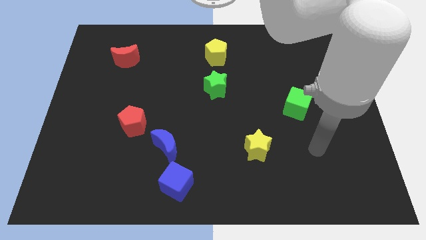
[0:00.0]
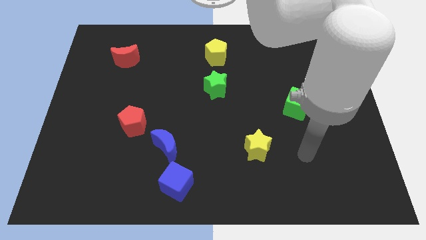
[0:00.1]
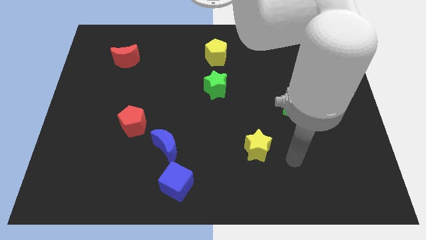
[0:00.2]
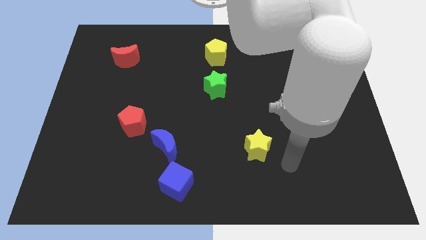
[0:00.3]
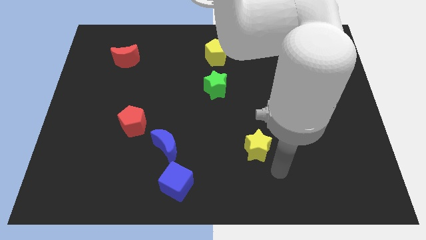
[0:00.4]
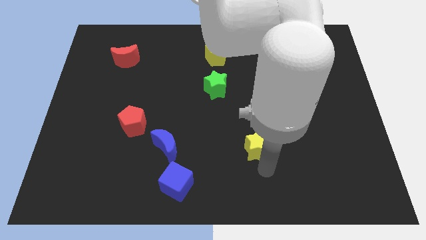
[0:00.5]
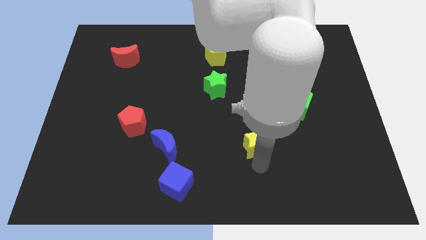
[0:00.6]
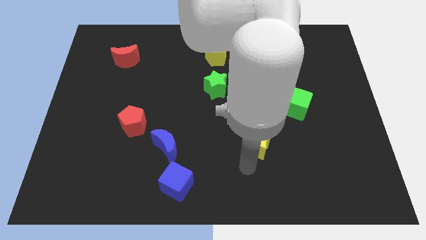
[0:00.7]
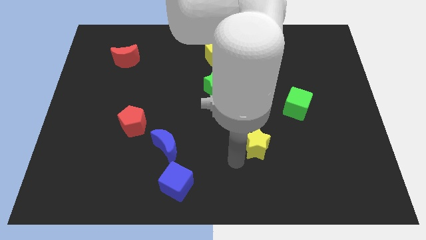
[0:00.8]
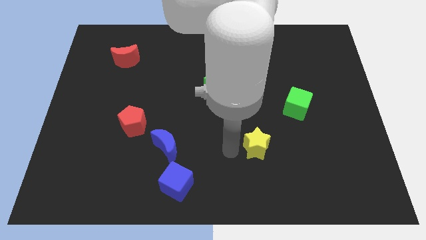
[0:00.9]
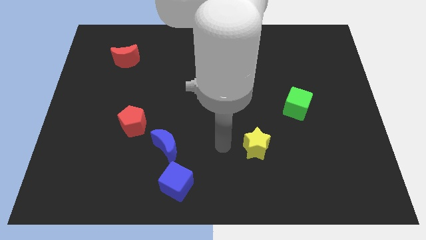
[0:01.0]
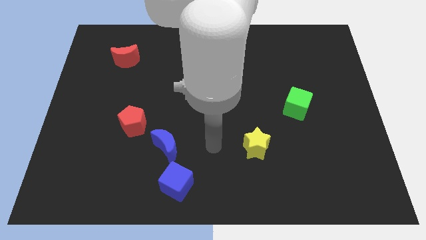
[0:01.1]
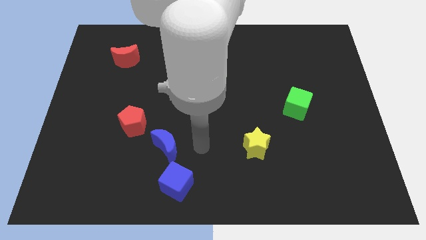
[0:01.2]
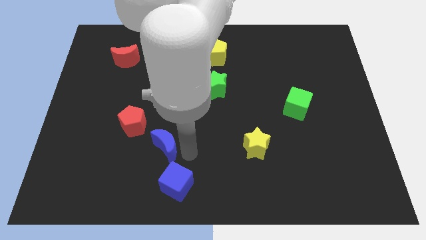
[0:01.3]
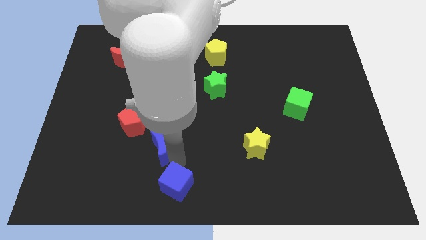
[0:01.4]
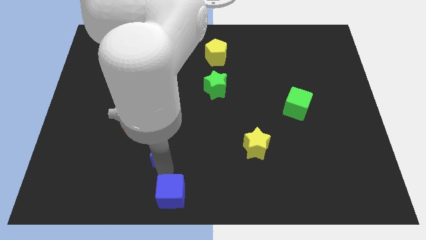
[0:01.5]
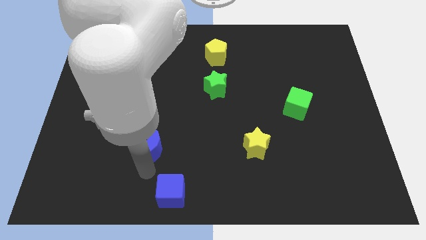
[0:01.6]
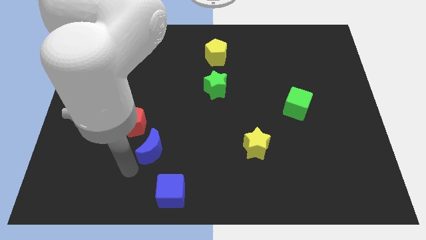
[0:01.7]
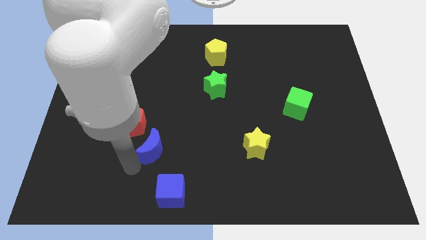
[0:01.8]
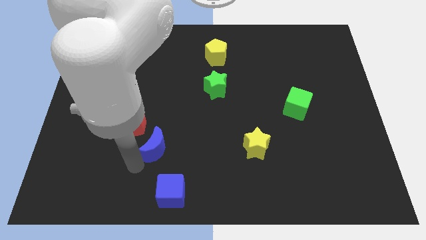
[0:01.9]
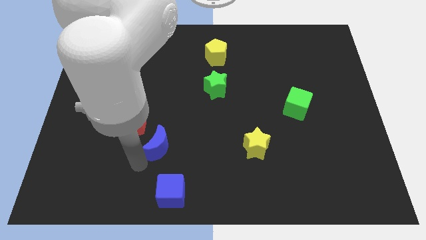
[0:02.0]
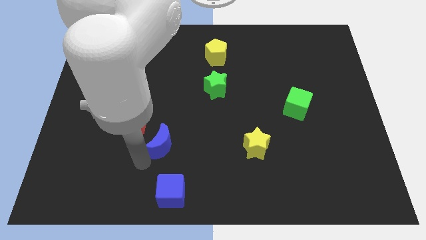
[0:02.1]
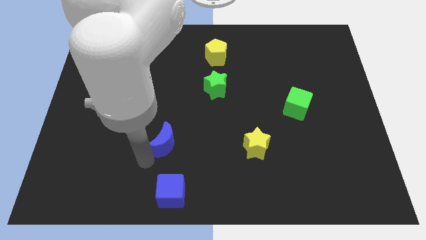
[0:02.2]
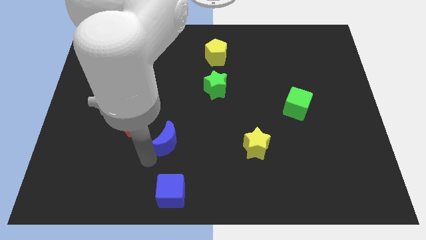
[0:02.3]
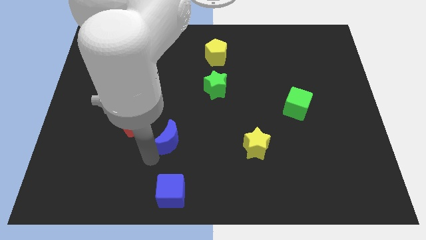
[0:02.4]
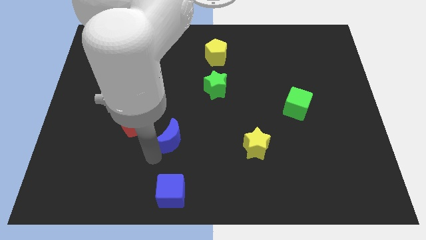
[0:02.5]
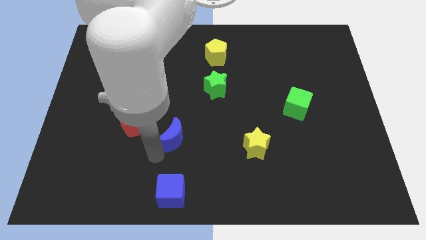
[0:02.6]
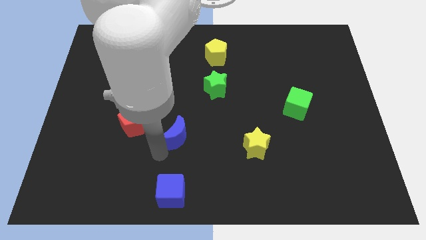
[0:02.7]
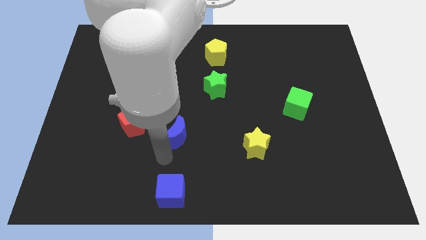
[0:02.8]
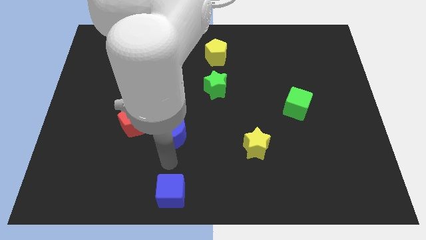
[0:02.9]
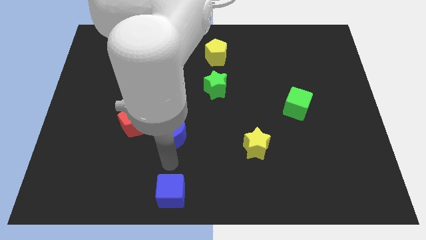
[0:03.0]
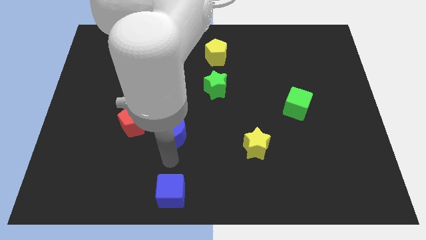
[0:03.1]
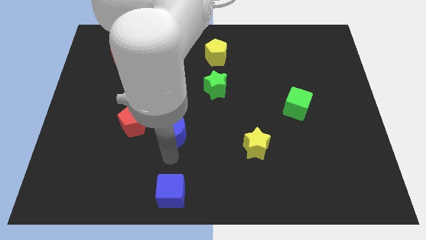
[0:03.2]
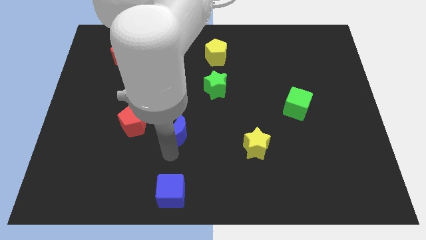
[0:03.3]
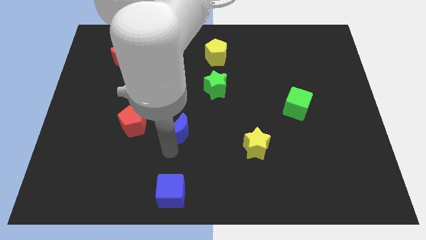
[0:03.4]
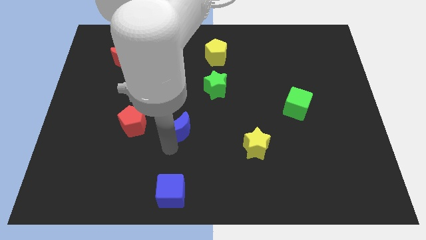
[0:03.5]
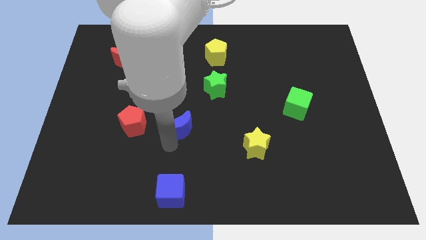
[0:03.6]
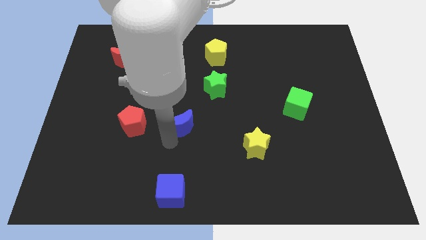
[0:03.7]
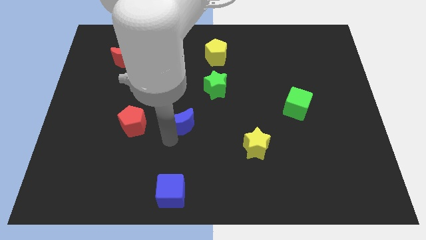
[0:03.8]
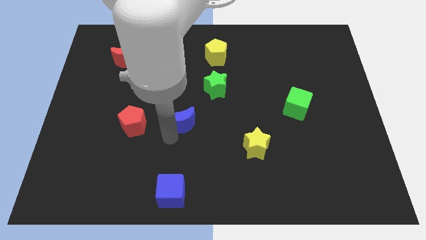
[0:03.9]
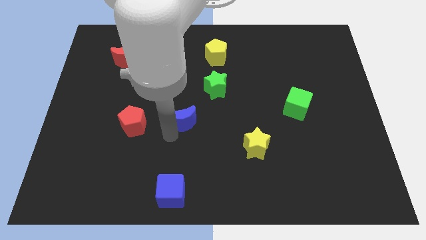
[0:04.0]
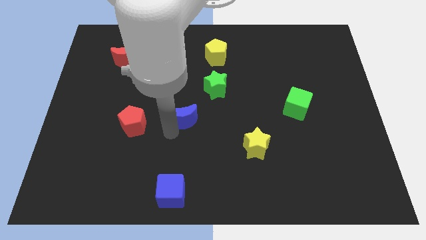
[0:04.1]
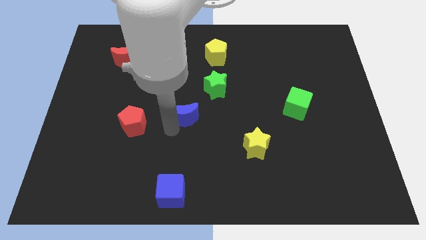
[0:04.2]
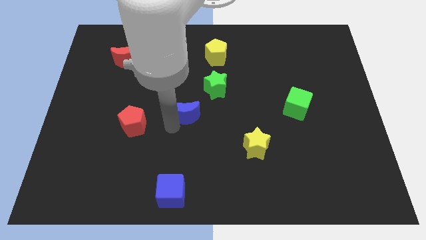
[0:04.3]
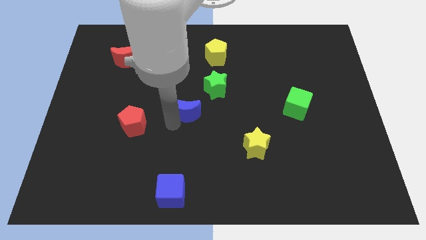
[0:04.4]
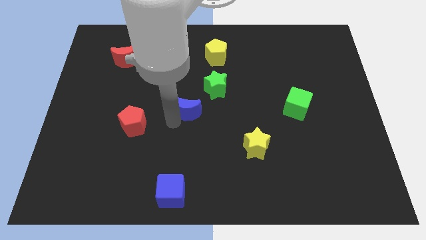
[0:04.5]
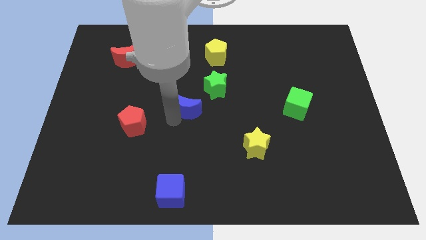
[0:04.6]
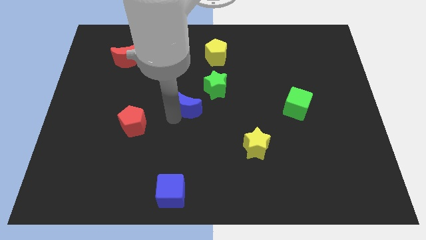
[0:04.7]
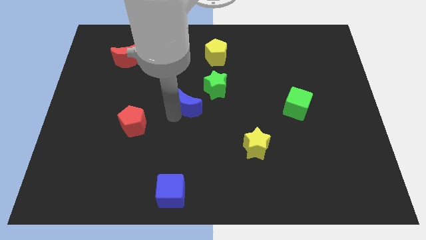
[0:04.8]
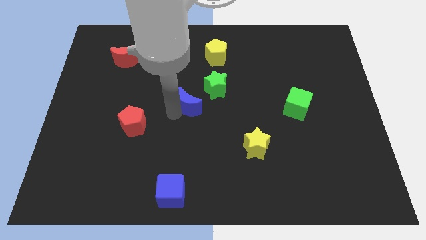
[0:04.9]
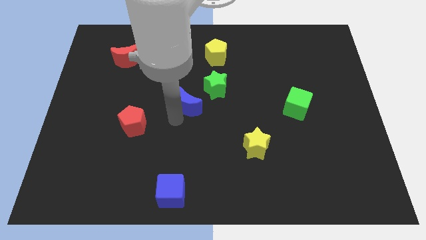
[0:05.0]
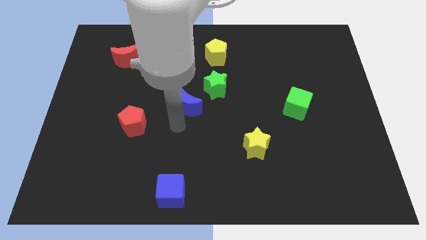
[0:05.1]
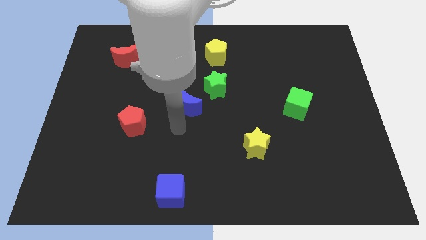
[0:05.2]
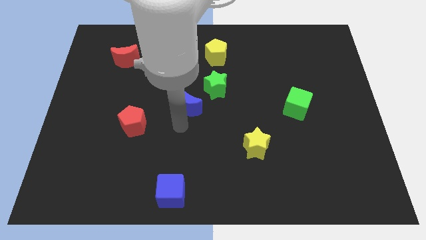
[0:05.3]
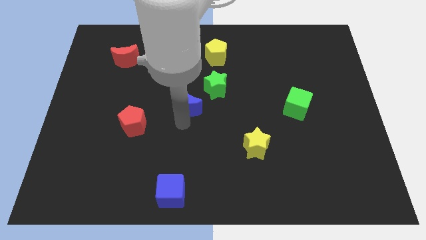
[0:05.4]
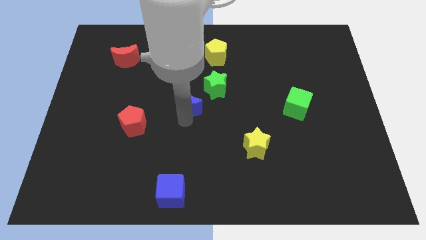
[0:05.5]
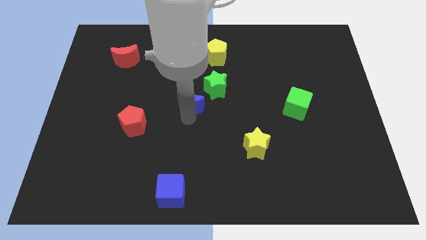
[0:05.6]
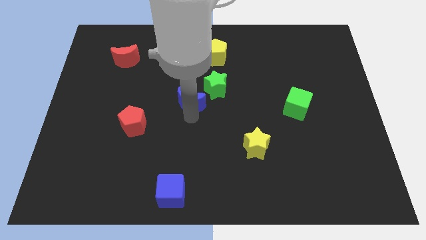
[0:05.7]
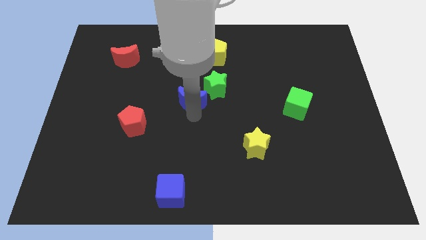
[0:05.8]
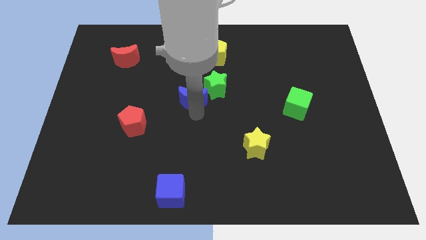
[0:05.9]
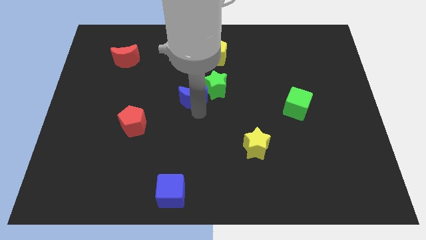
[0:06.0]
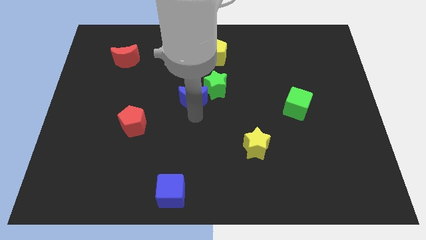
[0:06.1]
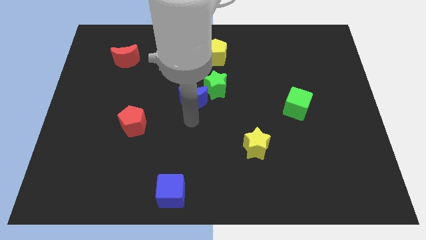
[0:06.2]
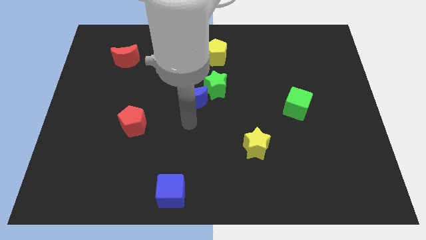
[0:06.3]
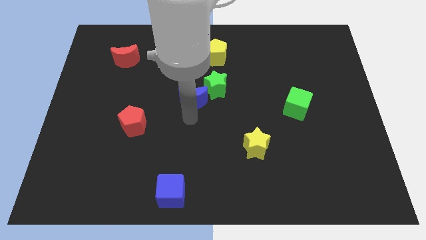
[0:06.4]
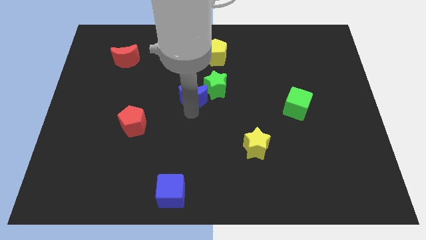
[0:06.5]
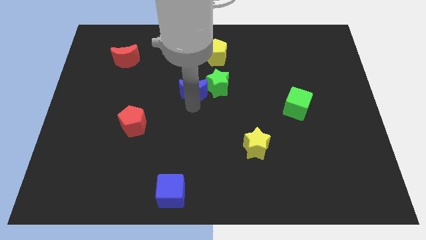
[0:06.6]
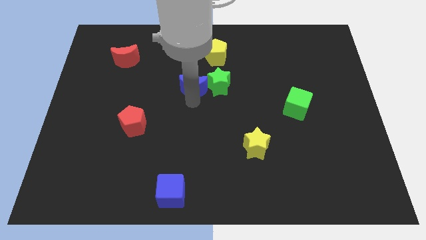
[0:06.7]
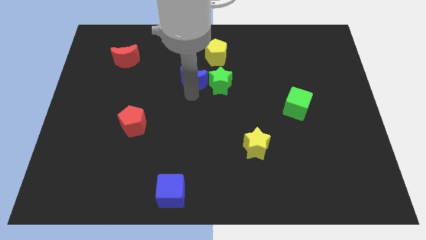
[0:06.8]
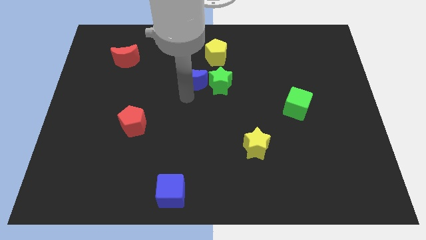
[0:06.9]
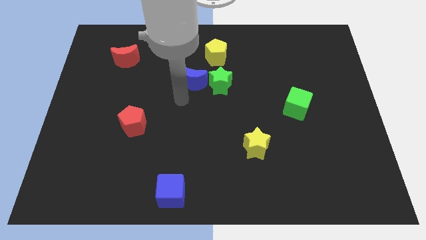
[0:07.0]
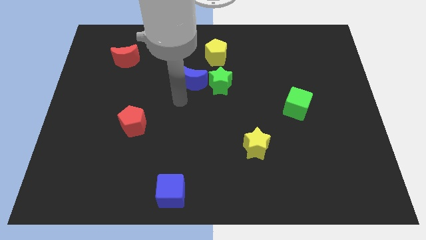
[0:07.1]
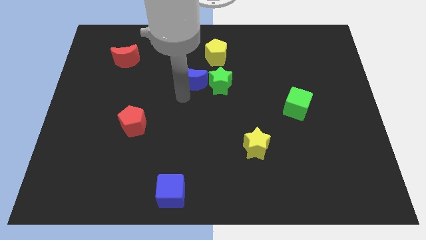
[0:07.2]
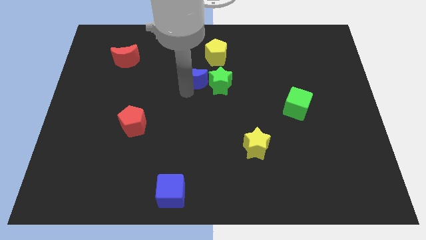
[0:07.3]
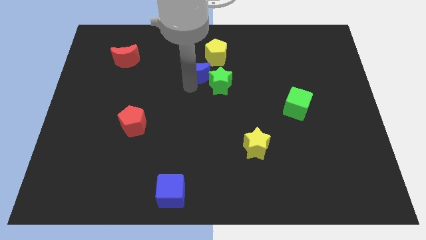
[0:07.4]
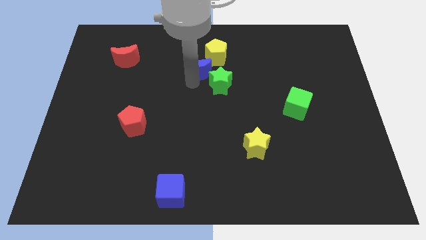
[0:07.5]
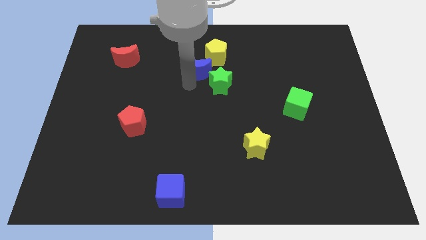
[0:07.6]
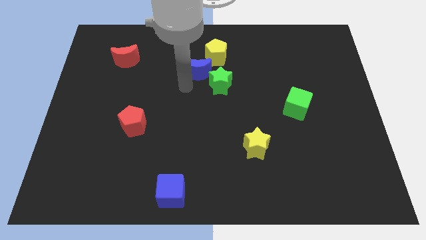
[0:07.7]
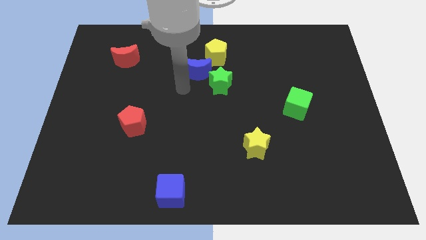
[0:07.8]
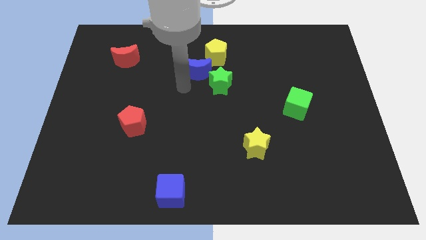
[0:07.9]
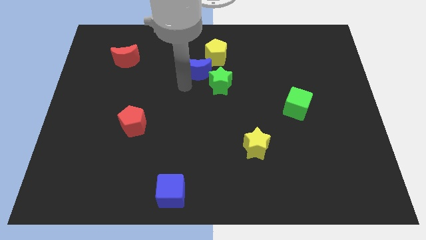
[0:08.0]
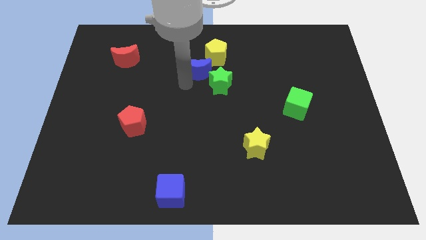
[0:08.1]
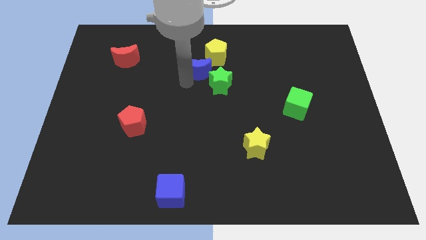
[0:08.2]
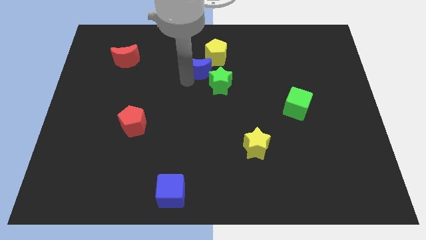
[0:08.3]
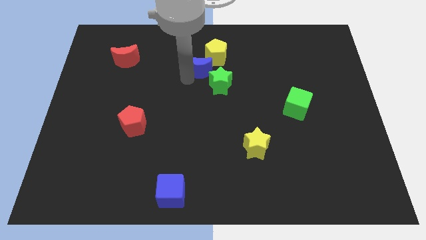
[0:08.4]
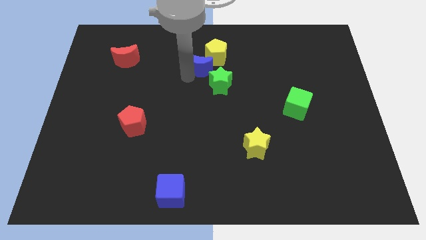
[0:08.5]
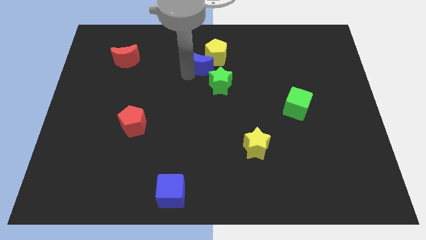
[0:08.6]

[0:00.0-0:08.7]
move the blue moon towards the yellow pentagon
